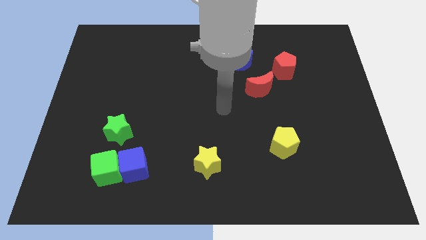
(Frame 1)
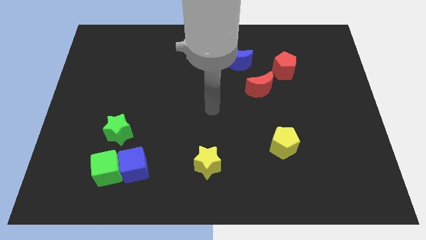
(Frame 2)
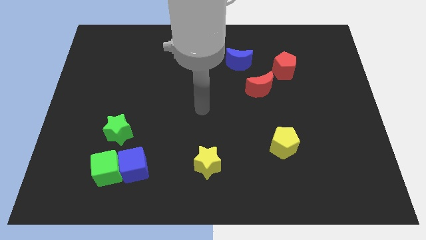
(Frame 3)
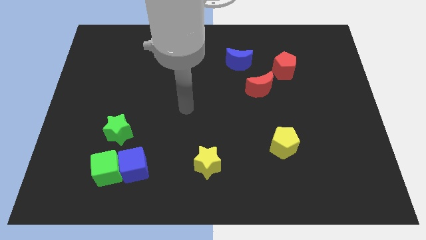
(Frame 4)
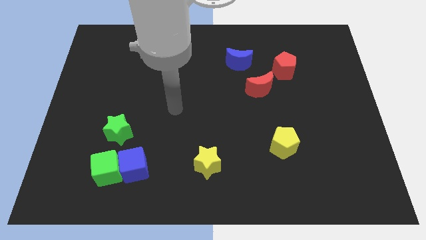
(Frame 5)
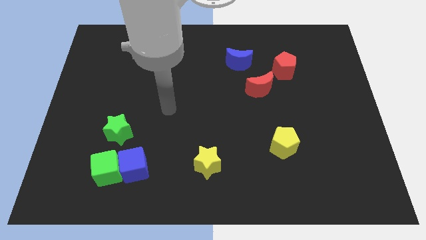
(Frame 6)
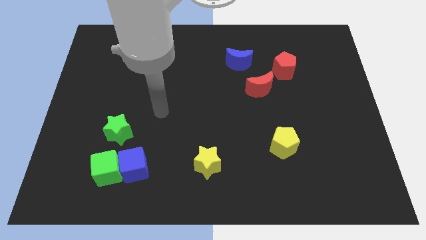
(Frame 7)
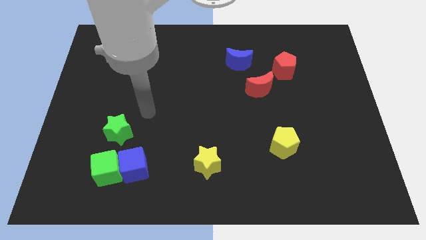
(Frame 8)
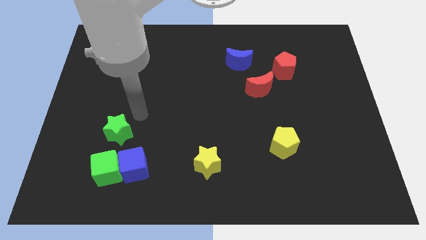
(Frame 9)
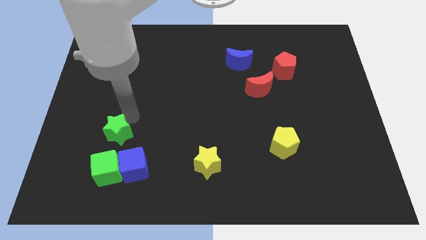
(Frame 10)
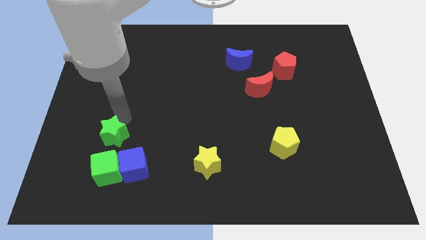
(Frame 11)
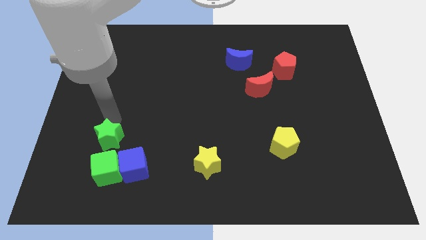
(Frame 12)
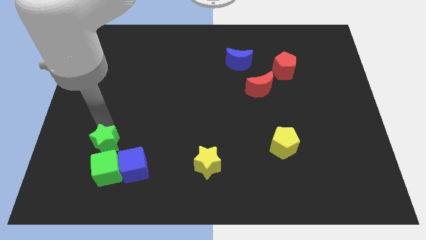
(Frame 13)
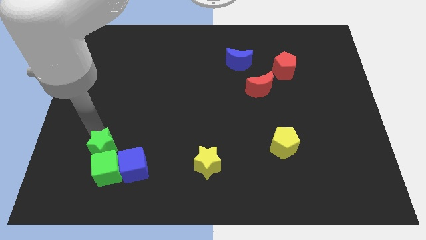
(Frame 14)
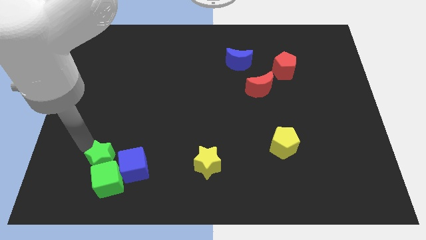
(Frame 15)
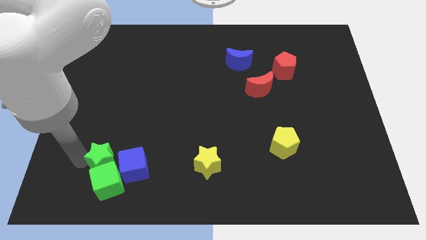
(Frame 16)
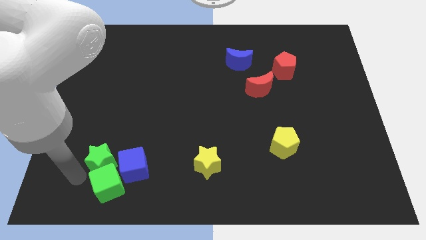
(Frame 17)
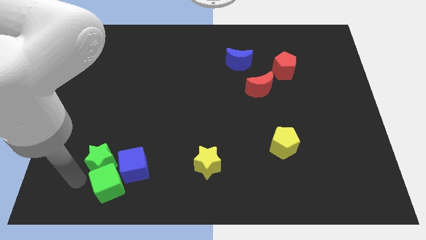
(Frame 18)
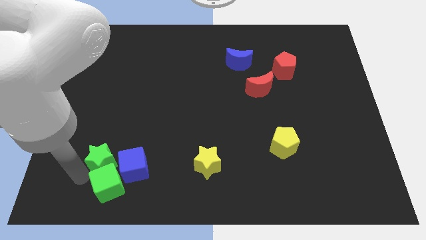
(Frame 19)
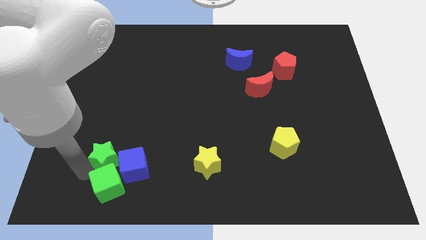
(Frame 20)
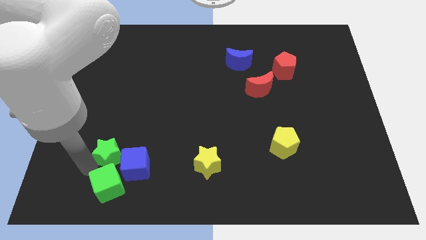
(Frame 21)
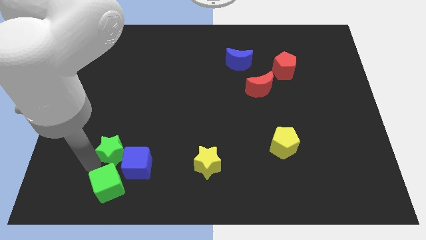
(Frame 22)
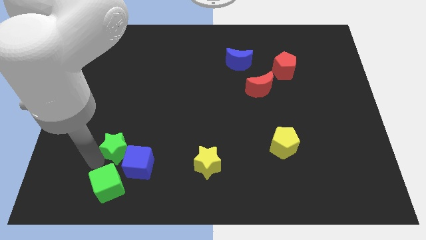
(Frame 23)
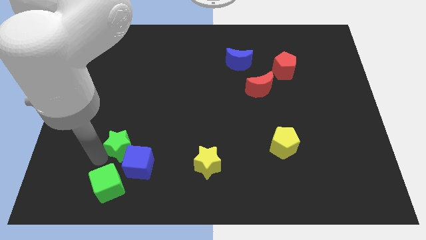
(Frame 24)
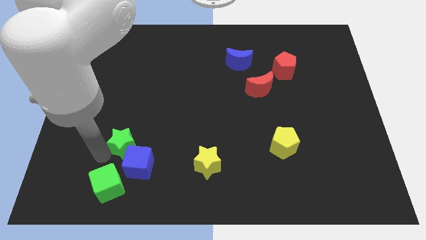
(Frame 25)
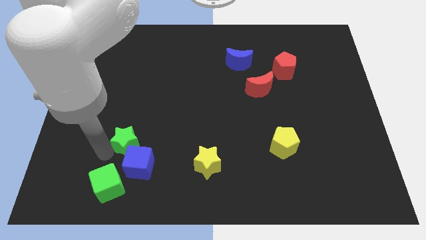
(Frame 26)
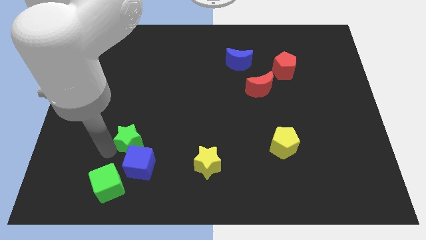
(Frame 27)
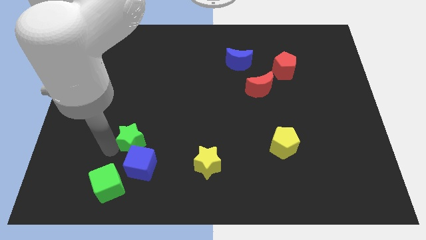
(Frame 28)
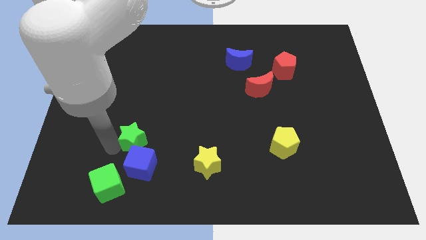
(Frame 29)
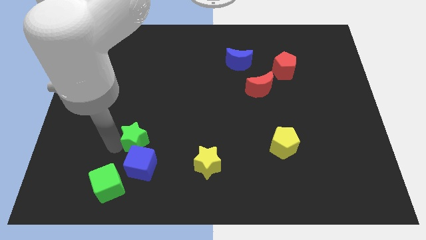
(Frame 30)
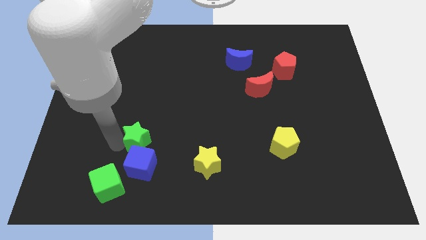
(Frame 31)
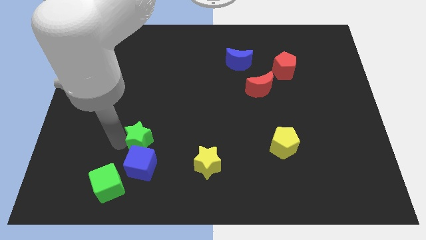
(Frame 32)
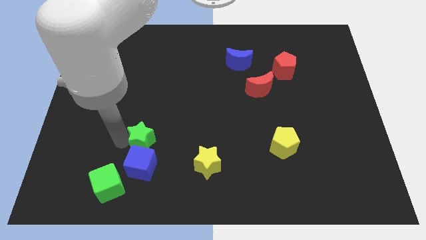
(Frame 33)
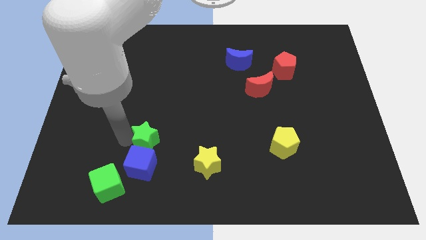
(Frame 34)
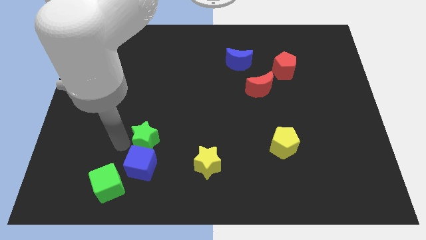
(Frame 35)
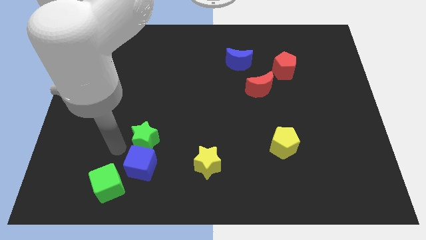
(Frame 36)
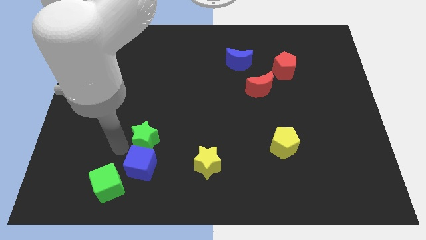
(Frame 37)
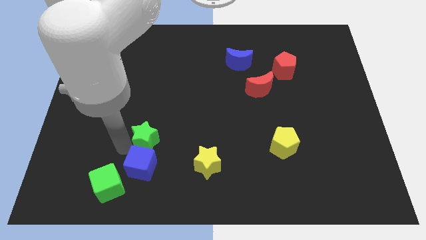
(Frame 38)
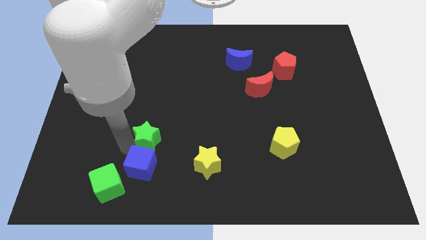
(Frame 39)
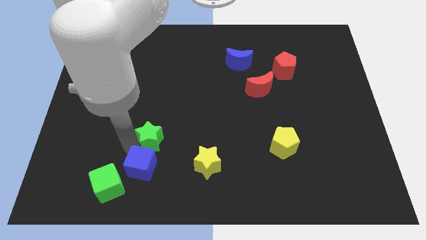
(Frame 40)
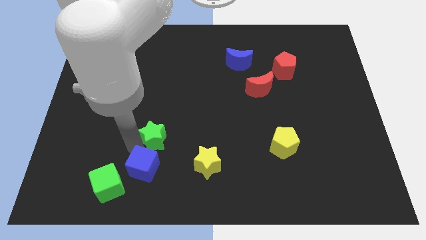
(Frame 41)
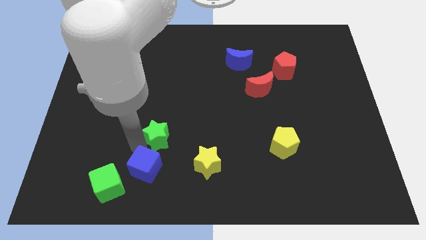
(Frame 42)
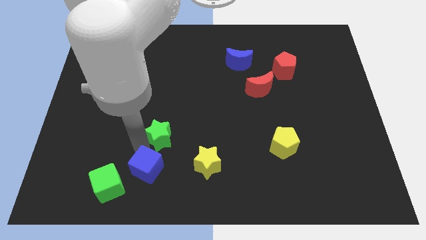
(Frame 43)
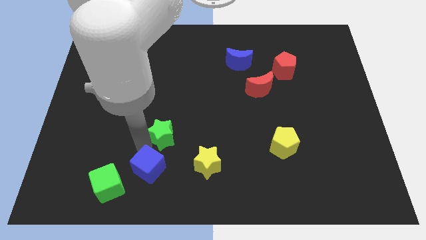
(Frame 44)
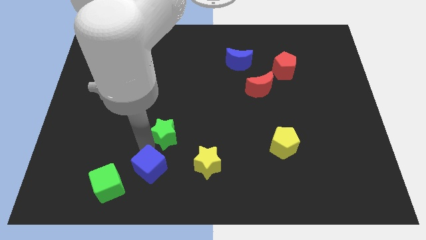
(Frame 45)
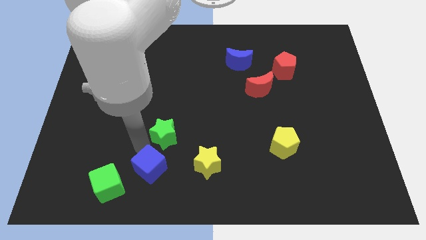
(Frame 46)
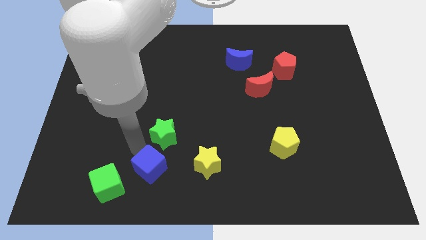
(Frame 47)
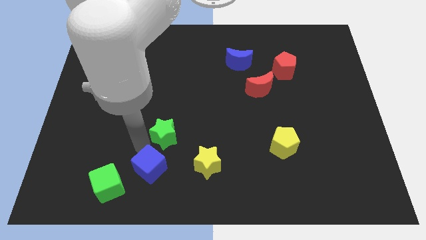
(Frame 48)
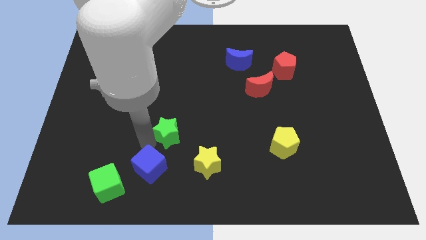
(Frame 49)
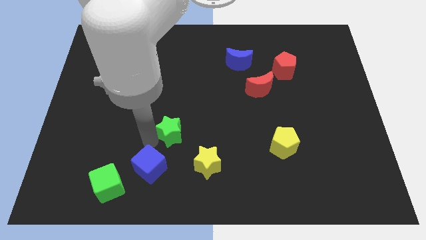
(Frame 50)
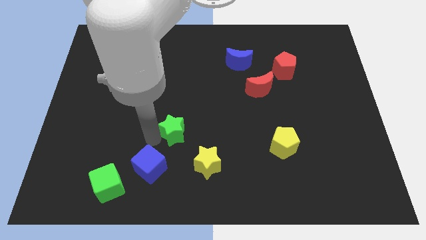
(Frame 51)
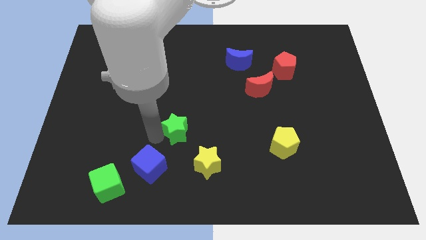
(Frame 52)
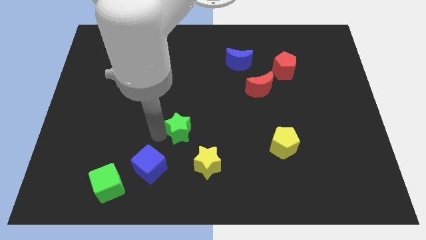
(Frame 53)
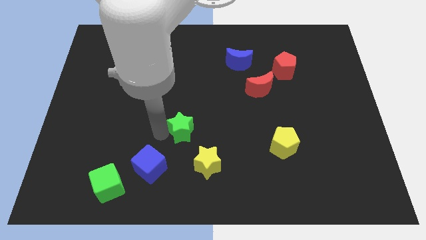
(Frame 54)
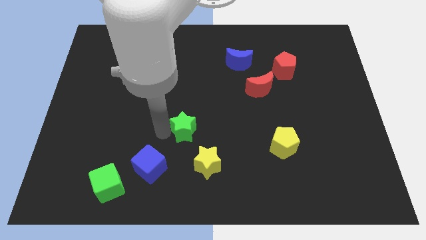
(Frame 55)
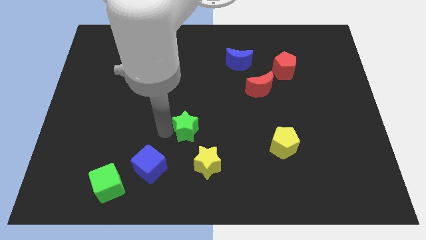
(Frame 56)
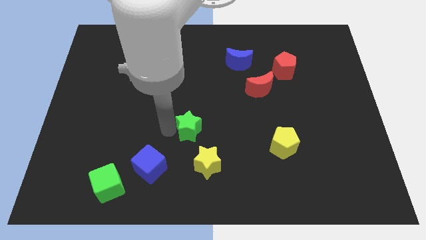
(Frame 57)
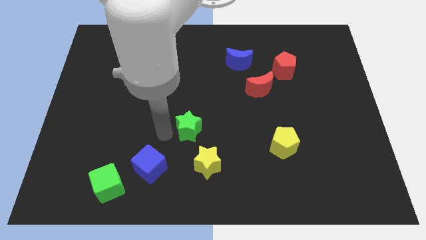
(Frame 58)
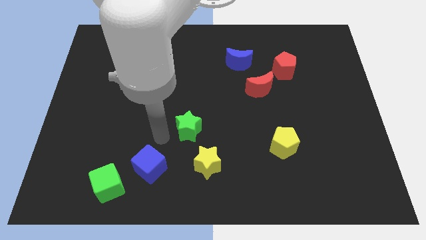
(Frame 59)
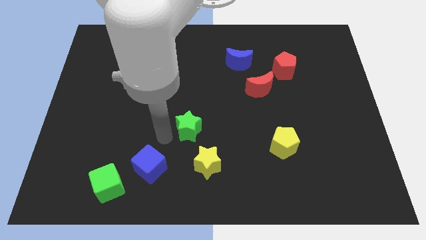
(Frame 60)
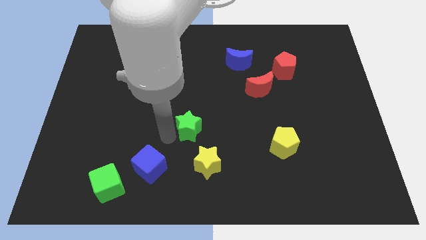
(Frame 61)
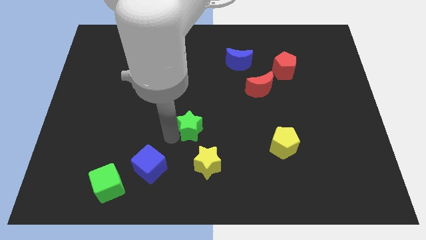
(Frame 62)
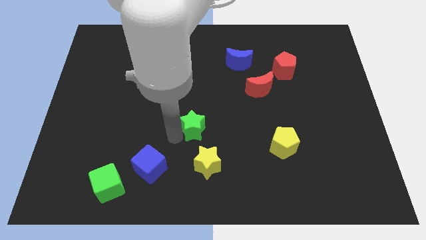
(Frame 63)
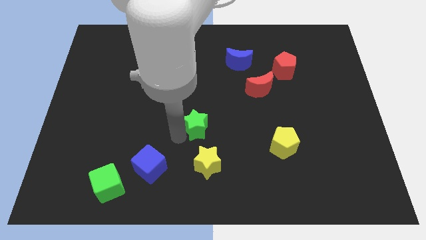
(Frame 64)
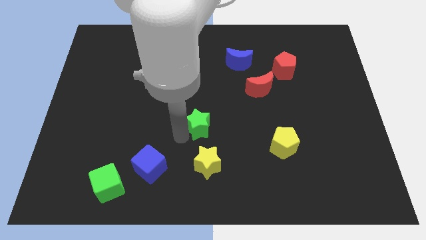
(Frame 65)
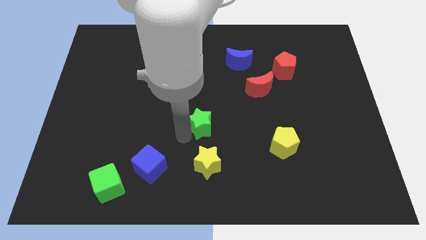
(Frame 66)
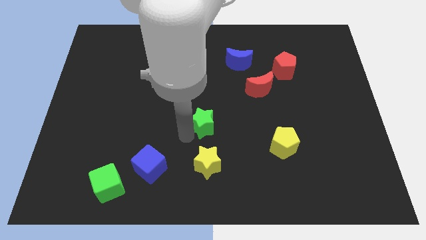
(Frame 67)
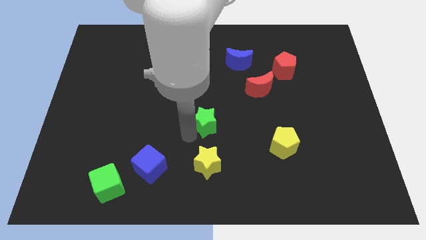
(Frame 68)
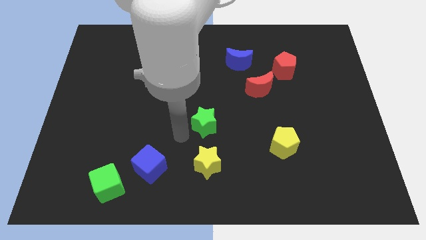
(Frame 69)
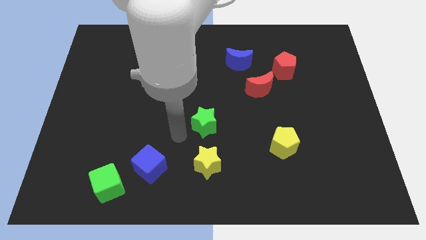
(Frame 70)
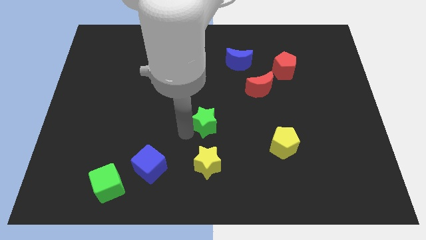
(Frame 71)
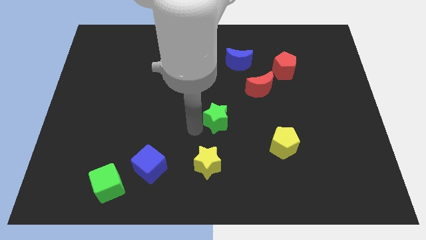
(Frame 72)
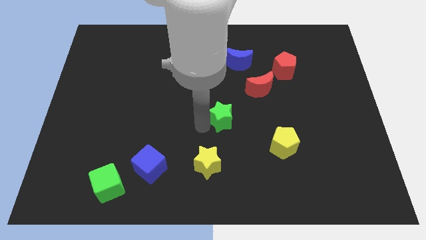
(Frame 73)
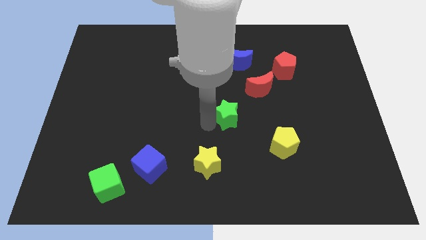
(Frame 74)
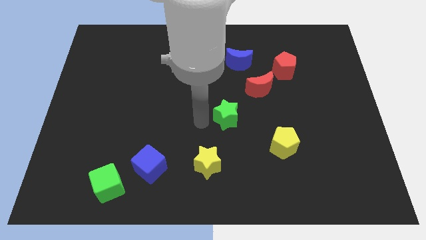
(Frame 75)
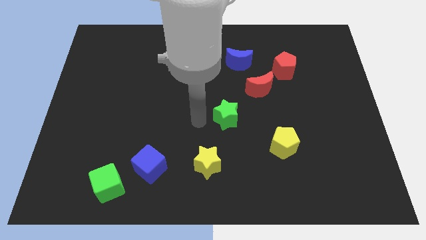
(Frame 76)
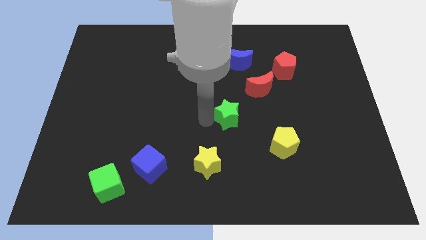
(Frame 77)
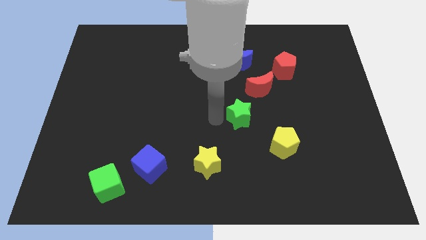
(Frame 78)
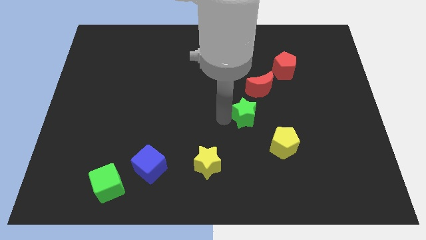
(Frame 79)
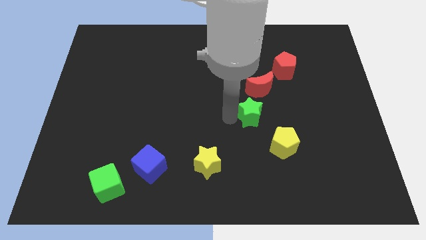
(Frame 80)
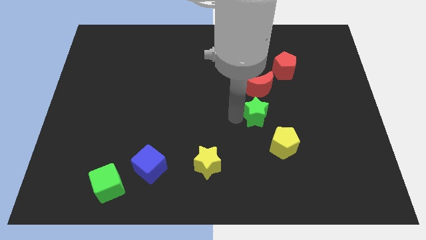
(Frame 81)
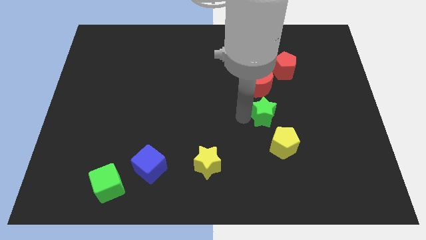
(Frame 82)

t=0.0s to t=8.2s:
slide the green star to the top side of the yellow pentagon
